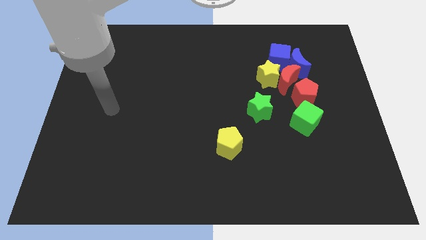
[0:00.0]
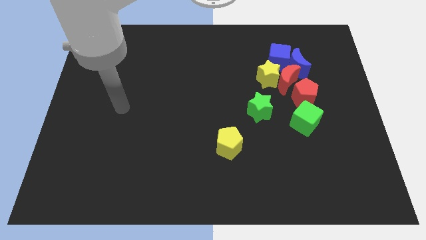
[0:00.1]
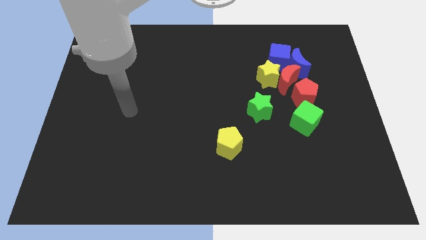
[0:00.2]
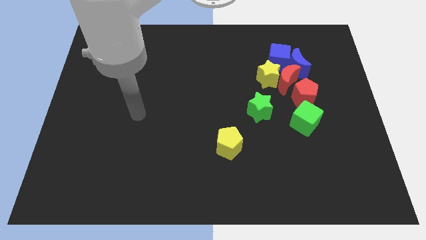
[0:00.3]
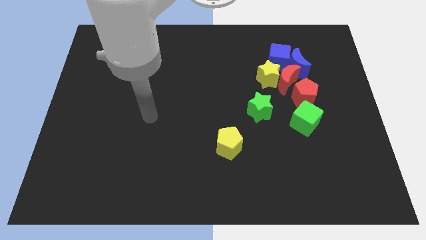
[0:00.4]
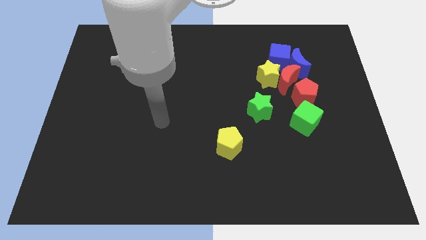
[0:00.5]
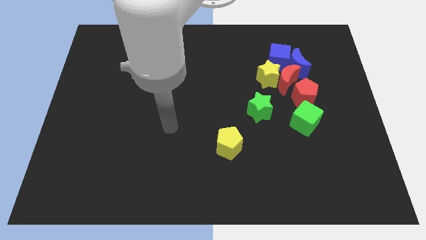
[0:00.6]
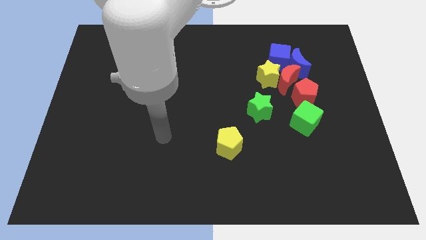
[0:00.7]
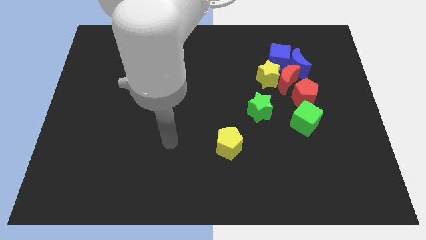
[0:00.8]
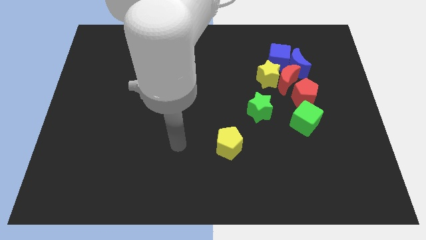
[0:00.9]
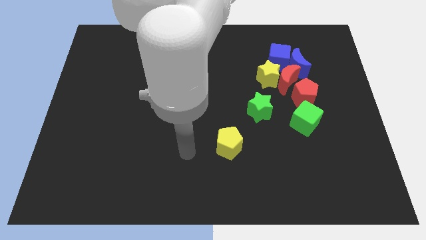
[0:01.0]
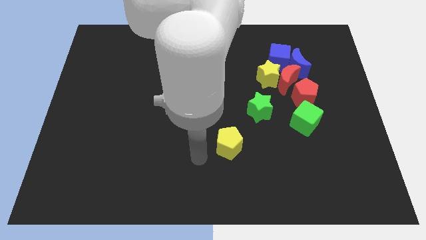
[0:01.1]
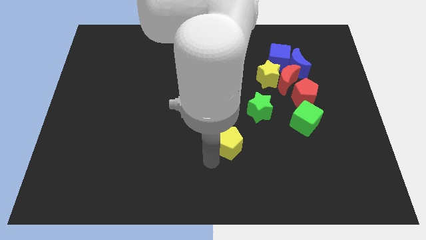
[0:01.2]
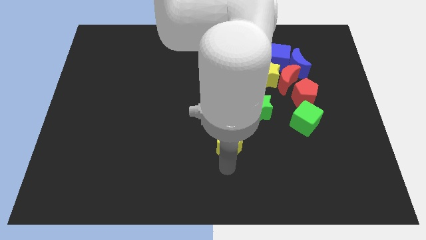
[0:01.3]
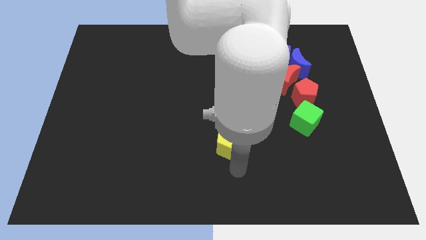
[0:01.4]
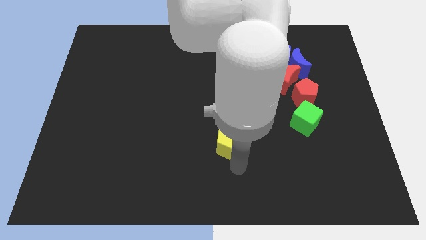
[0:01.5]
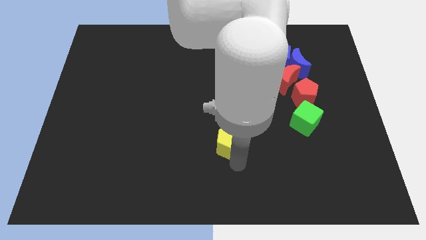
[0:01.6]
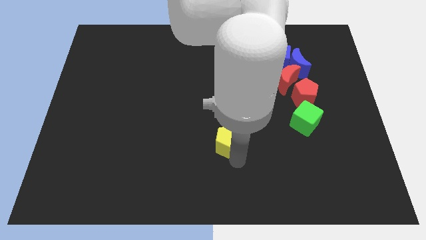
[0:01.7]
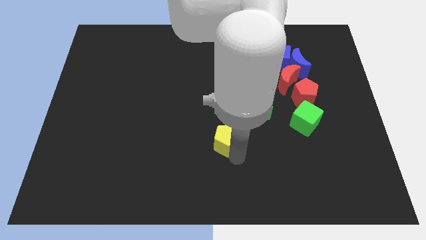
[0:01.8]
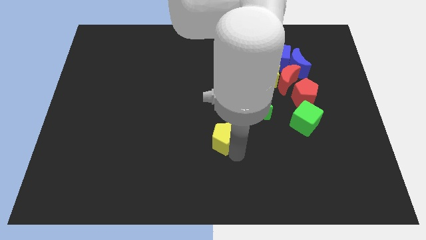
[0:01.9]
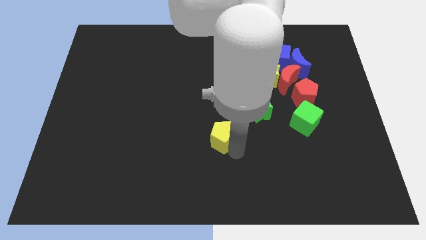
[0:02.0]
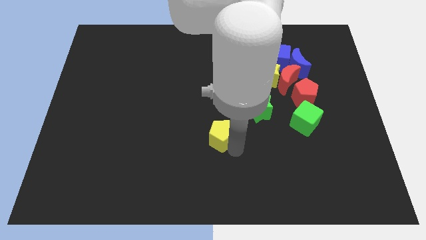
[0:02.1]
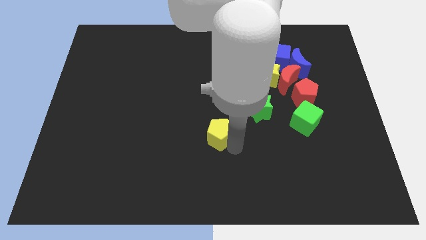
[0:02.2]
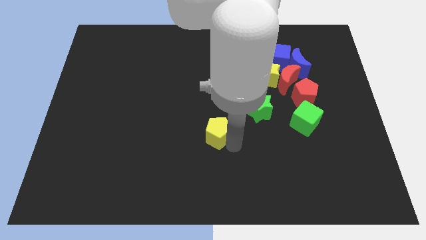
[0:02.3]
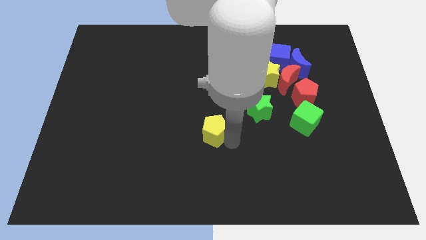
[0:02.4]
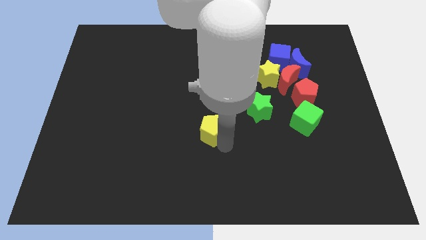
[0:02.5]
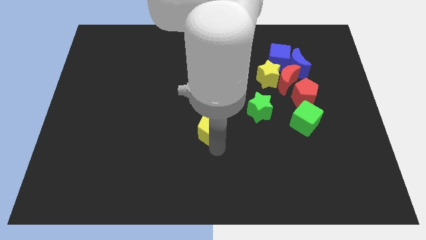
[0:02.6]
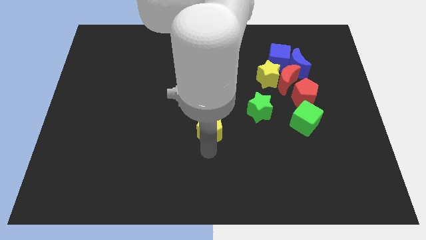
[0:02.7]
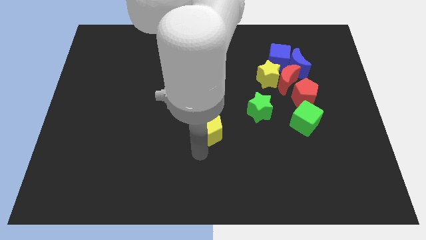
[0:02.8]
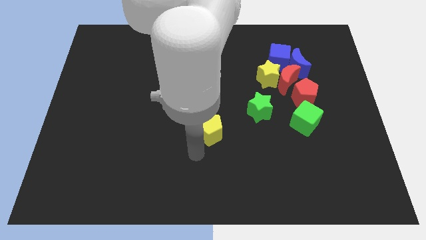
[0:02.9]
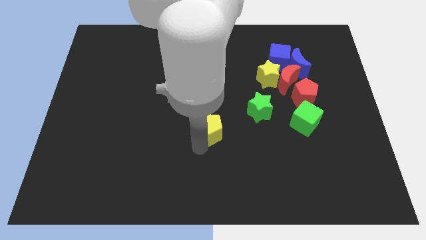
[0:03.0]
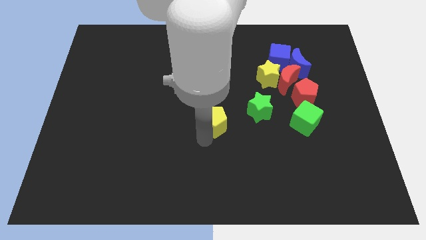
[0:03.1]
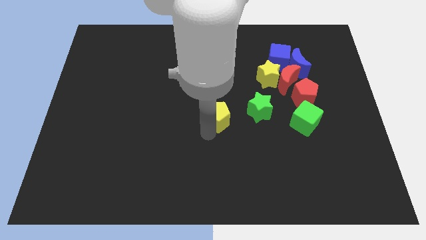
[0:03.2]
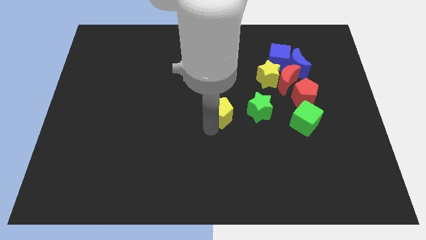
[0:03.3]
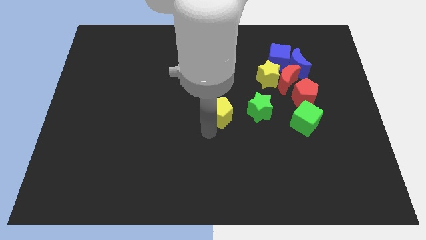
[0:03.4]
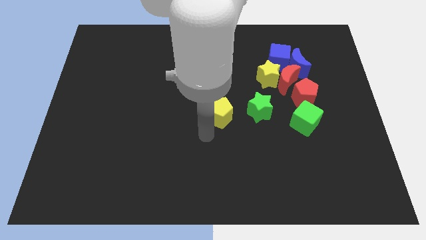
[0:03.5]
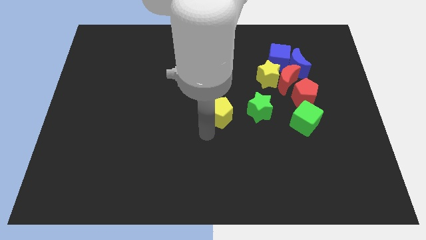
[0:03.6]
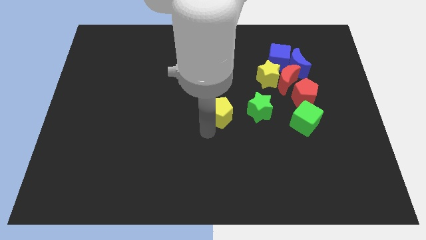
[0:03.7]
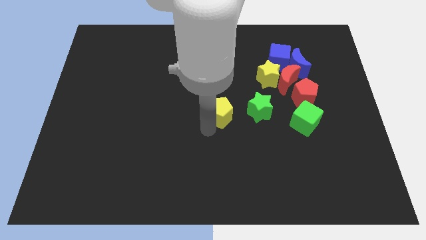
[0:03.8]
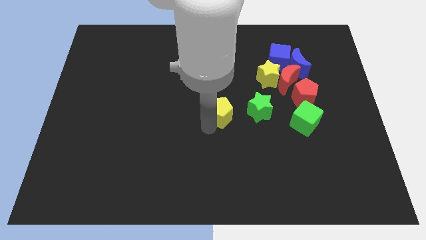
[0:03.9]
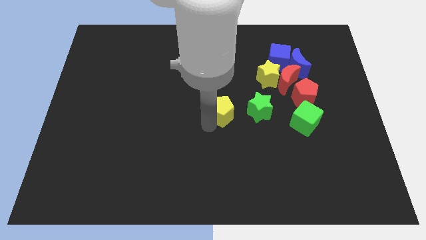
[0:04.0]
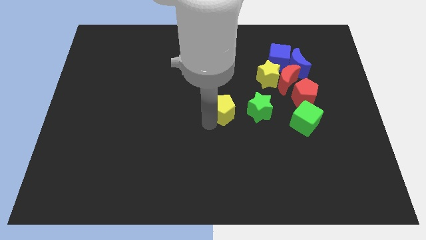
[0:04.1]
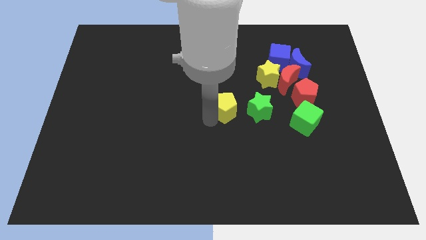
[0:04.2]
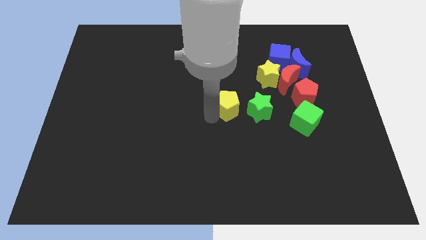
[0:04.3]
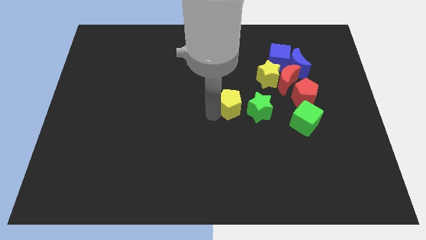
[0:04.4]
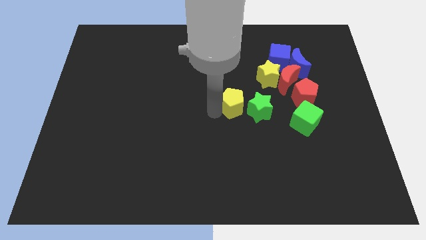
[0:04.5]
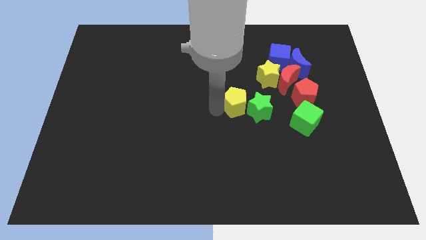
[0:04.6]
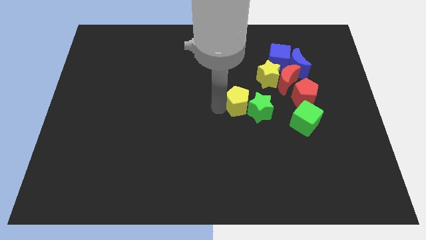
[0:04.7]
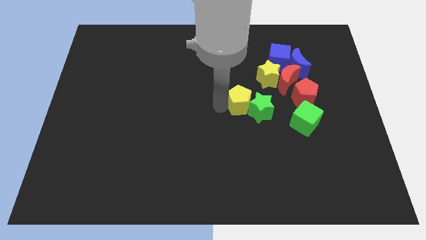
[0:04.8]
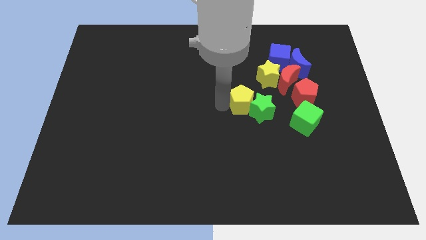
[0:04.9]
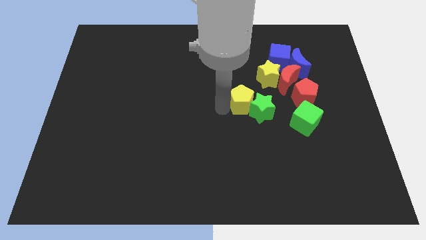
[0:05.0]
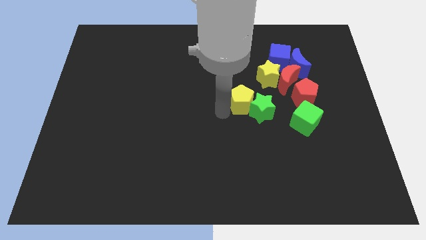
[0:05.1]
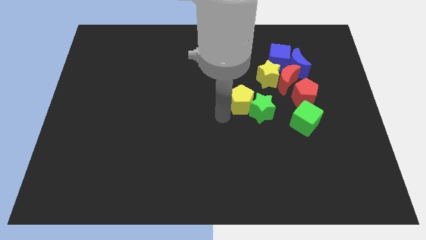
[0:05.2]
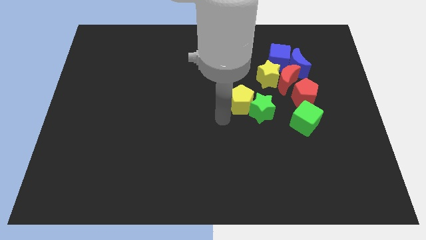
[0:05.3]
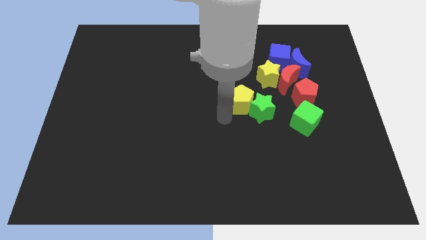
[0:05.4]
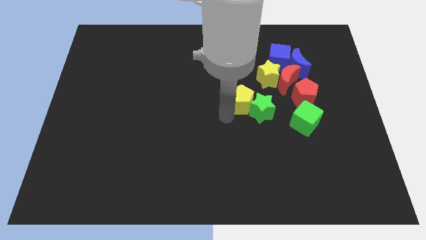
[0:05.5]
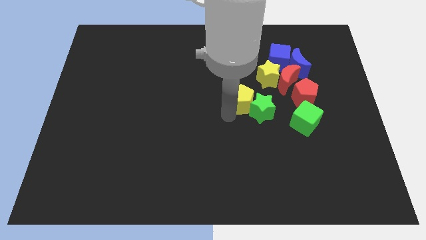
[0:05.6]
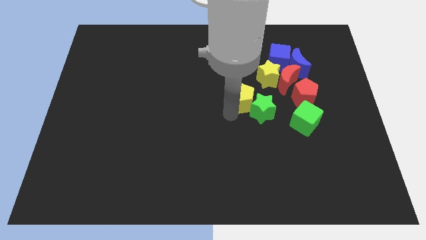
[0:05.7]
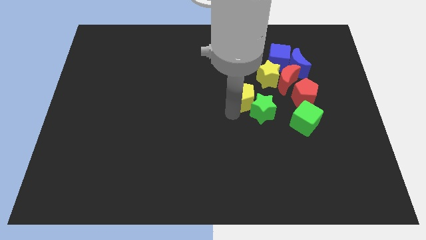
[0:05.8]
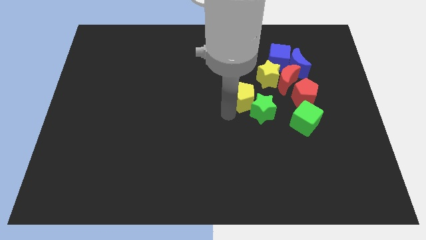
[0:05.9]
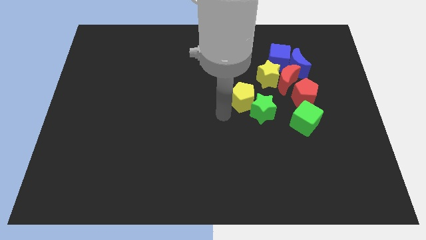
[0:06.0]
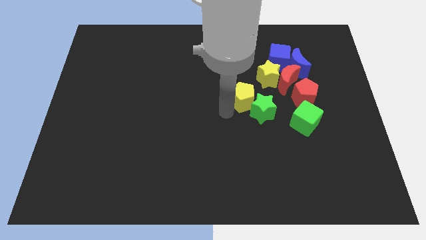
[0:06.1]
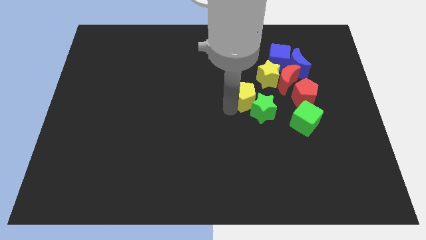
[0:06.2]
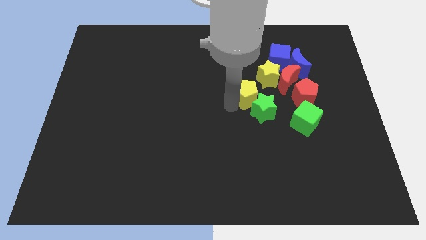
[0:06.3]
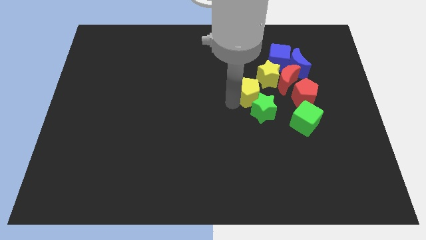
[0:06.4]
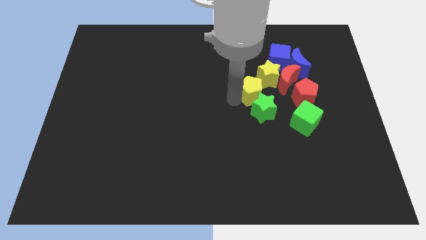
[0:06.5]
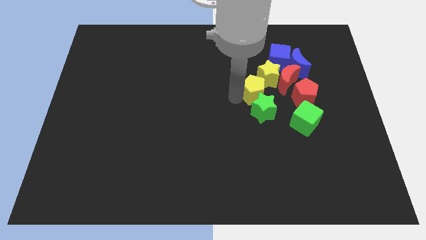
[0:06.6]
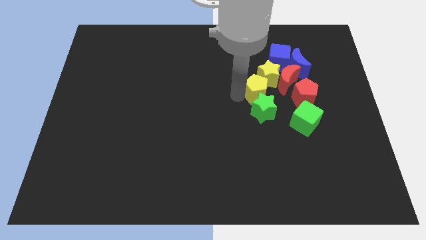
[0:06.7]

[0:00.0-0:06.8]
push the yellow pentagon to the yellow star

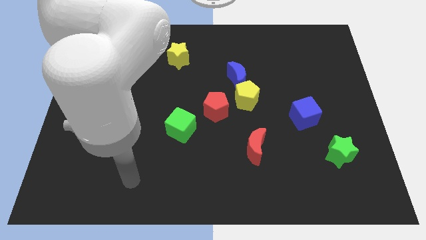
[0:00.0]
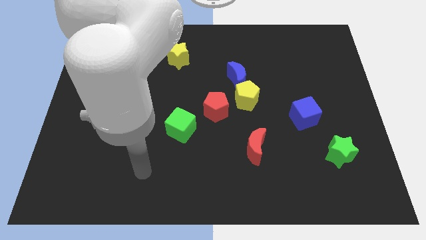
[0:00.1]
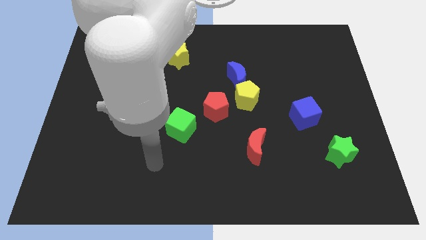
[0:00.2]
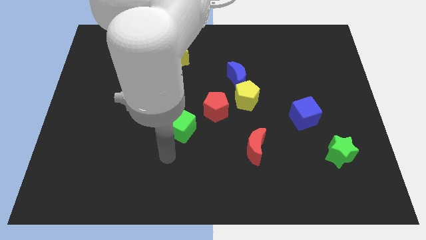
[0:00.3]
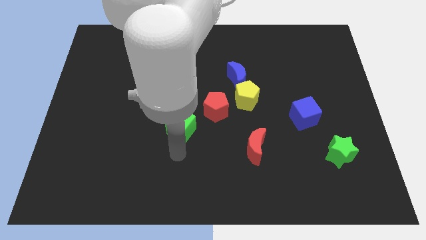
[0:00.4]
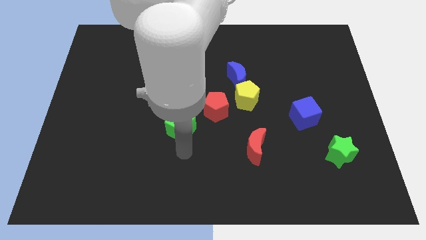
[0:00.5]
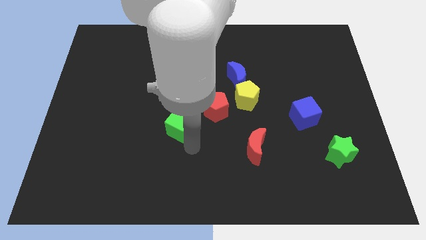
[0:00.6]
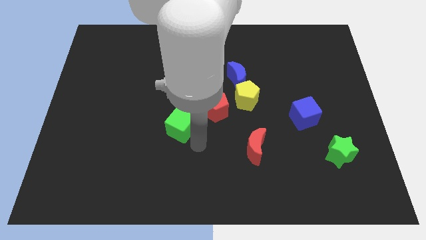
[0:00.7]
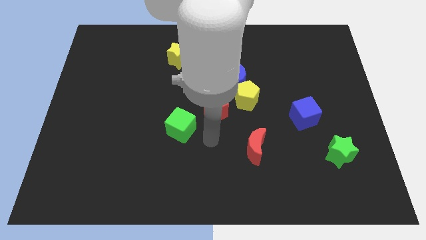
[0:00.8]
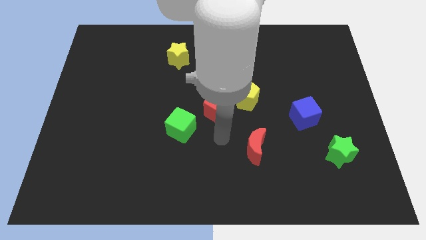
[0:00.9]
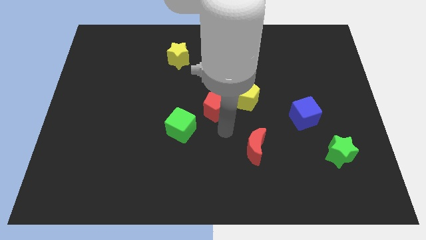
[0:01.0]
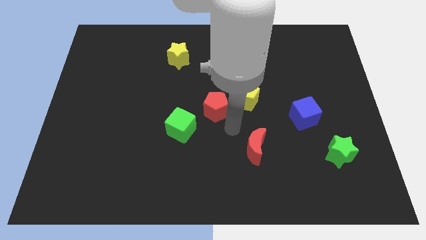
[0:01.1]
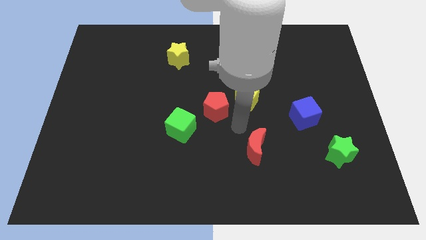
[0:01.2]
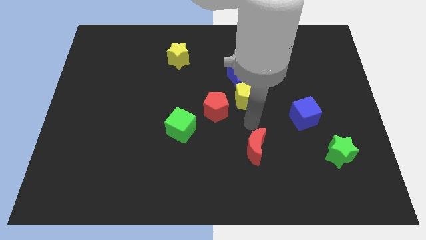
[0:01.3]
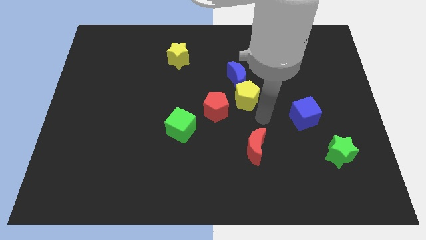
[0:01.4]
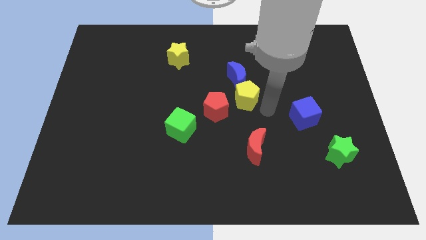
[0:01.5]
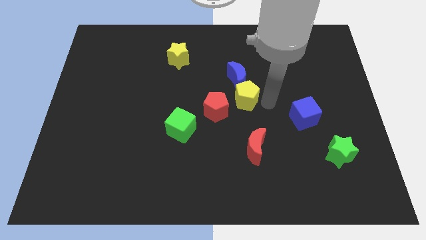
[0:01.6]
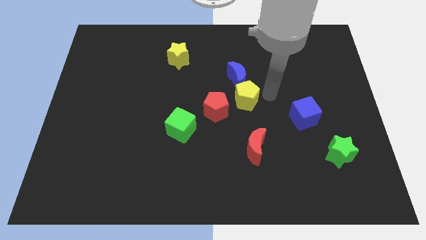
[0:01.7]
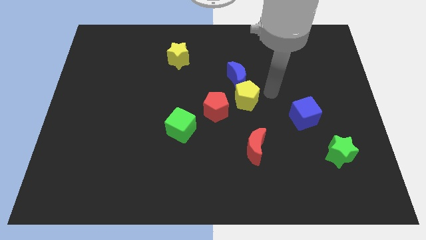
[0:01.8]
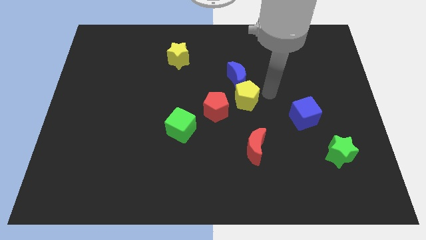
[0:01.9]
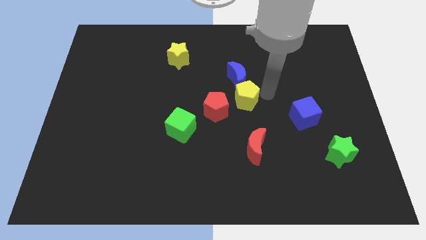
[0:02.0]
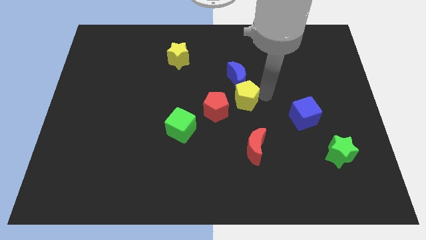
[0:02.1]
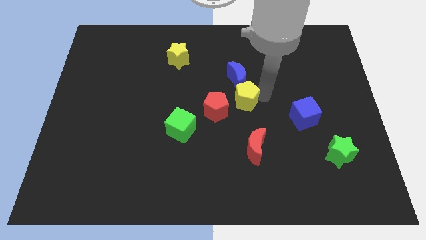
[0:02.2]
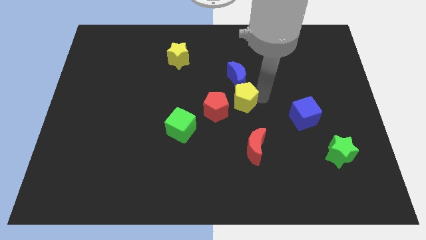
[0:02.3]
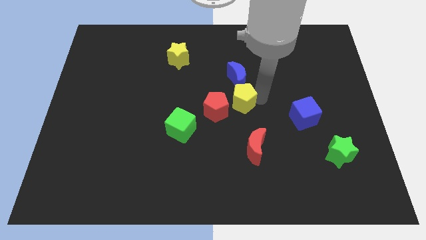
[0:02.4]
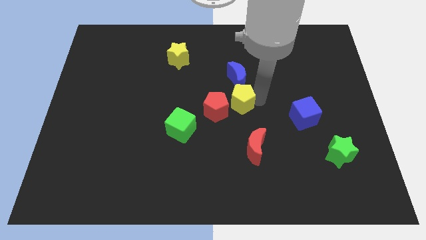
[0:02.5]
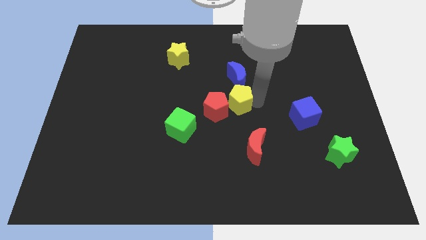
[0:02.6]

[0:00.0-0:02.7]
push the yellow pentagon towards the red pentagon
